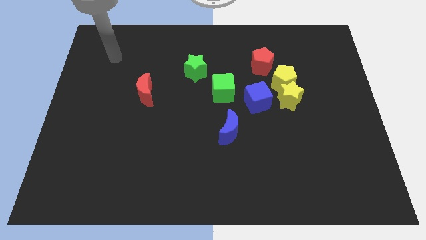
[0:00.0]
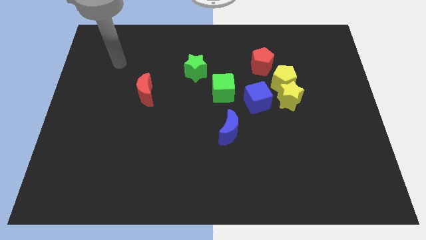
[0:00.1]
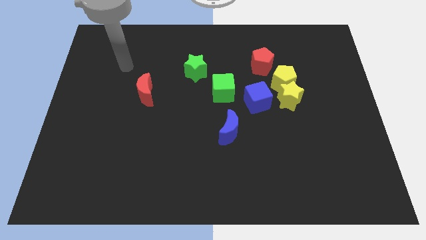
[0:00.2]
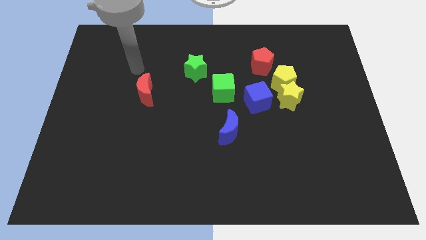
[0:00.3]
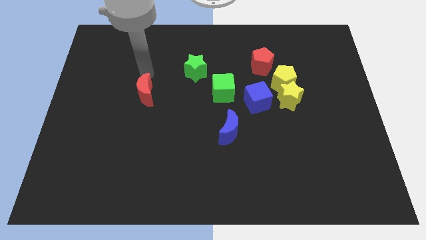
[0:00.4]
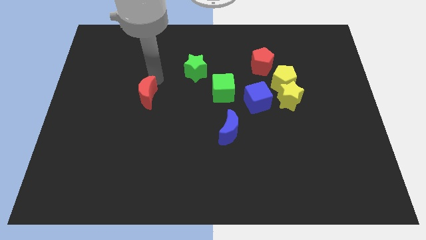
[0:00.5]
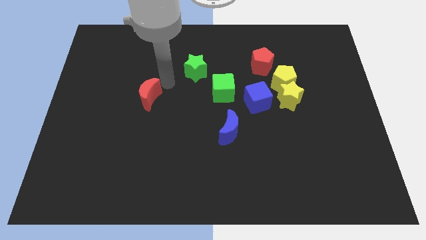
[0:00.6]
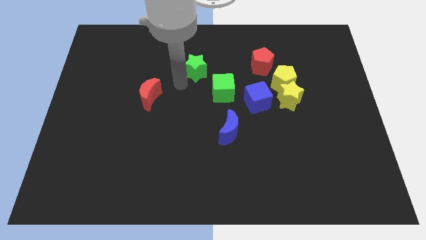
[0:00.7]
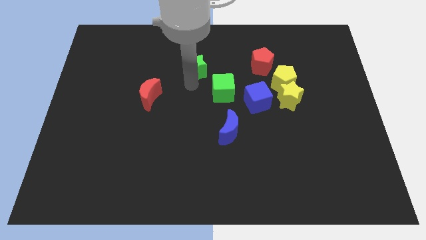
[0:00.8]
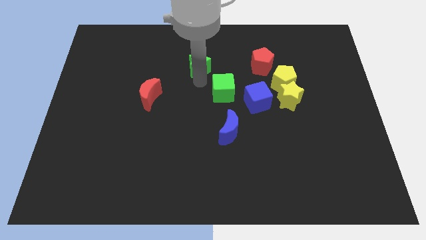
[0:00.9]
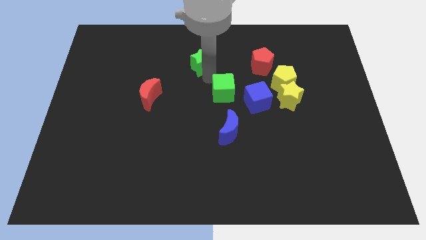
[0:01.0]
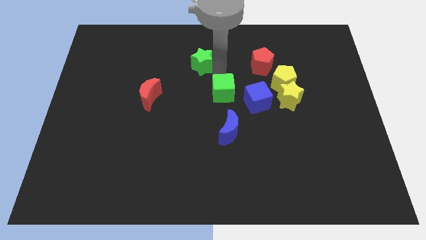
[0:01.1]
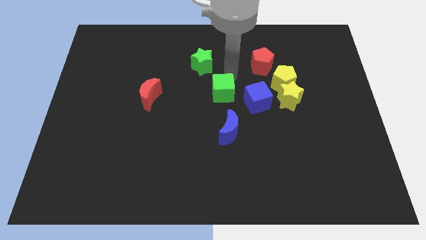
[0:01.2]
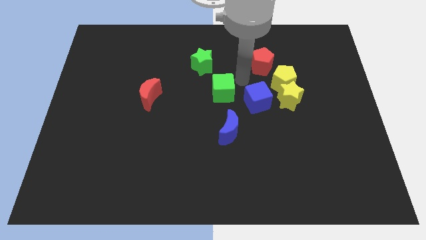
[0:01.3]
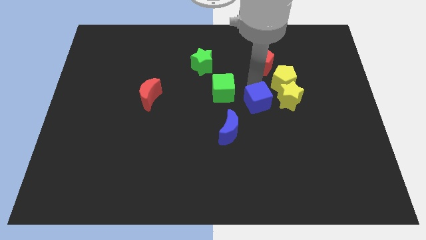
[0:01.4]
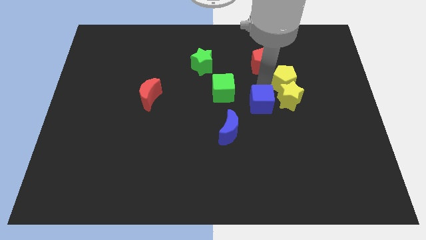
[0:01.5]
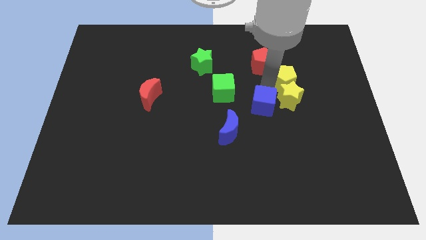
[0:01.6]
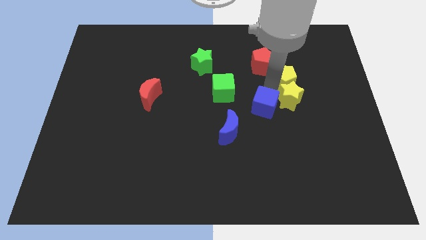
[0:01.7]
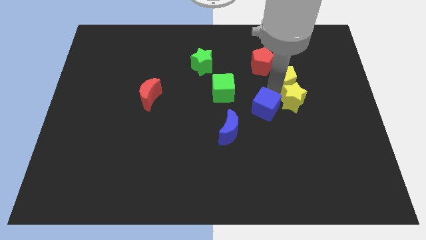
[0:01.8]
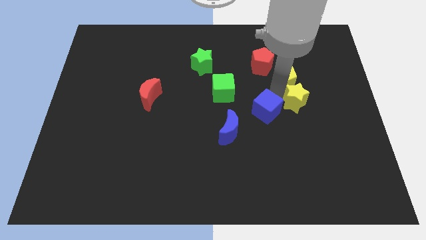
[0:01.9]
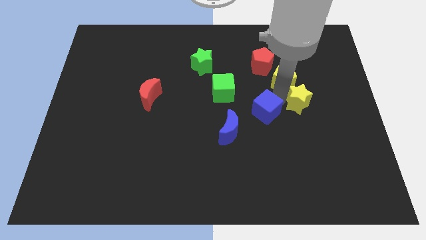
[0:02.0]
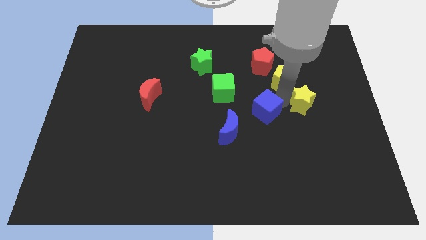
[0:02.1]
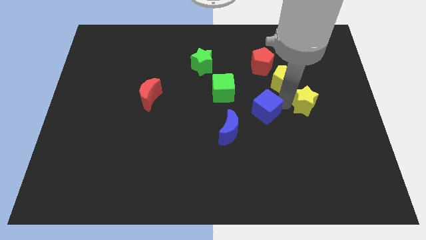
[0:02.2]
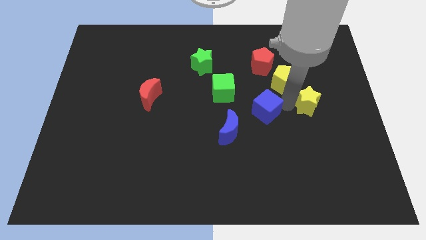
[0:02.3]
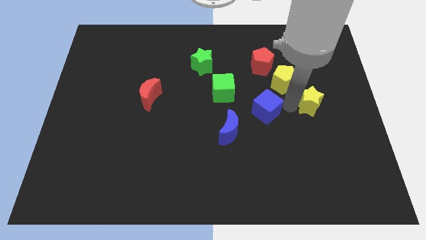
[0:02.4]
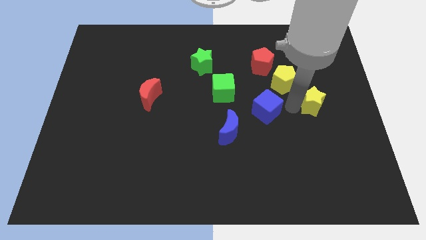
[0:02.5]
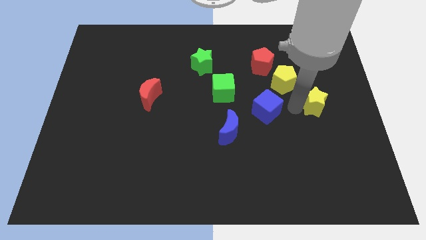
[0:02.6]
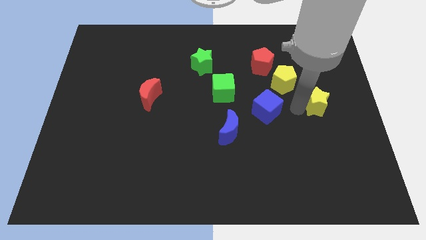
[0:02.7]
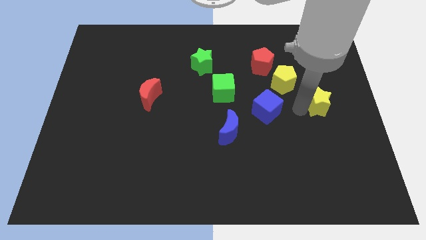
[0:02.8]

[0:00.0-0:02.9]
pull the yellow star apart from the yellow pentagon and blue cube

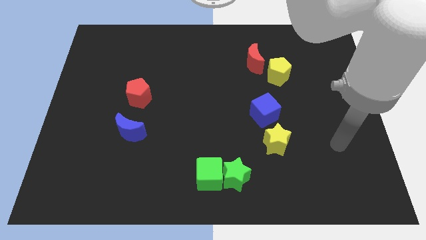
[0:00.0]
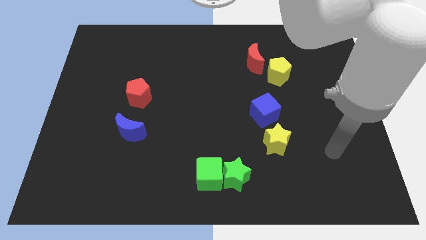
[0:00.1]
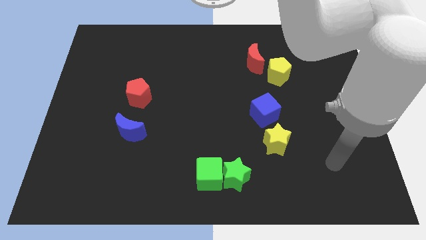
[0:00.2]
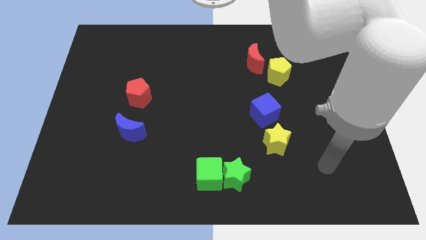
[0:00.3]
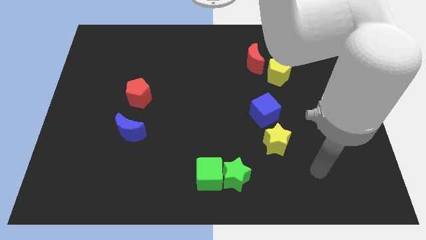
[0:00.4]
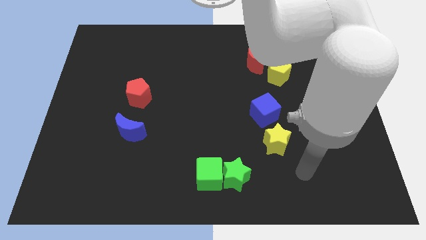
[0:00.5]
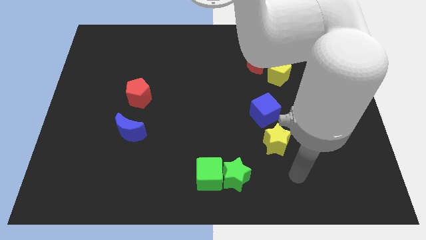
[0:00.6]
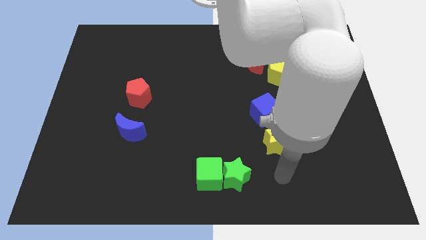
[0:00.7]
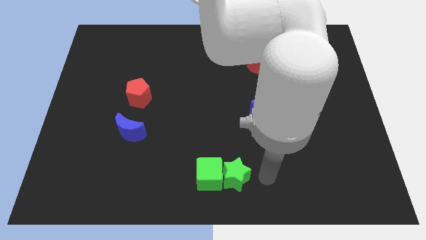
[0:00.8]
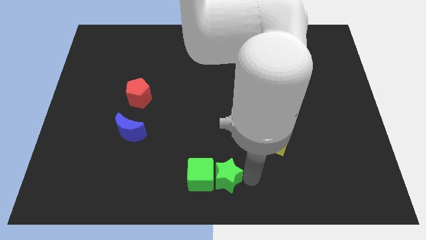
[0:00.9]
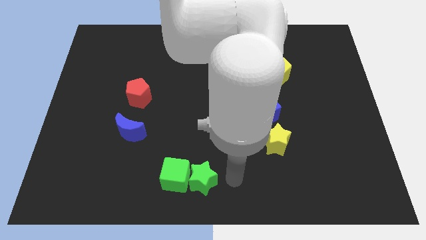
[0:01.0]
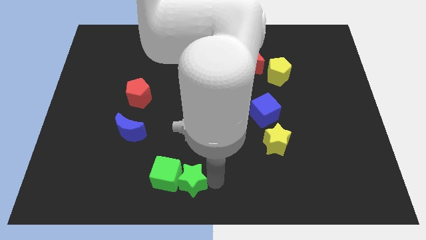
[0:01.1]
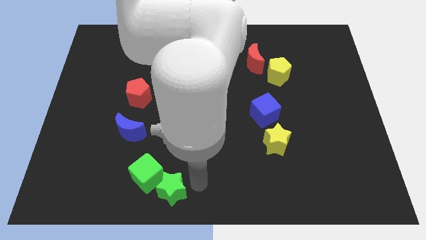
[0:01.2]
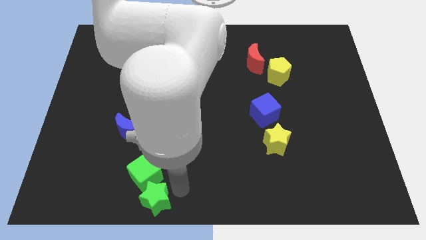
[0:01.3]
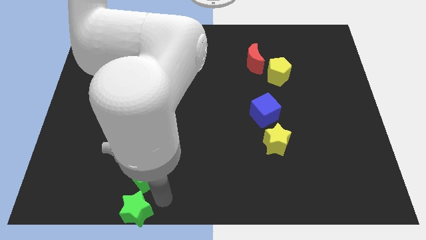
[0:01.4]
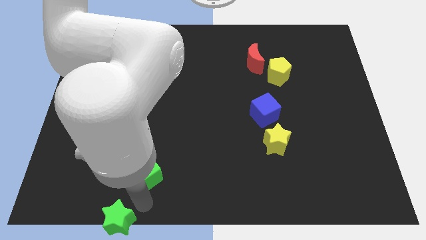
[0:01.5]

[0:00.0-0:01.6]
move the green cube away from the green star

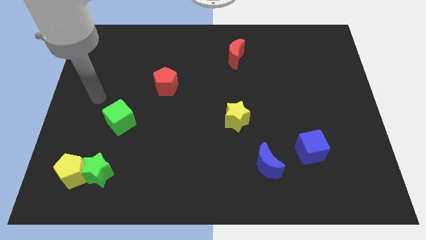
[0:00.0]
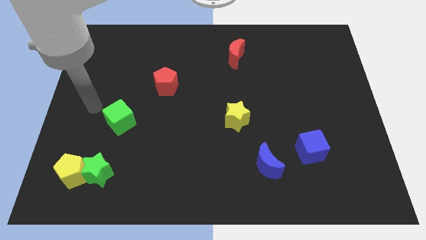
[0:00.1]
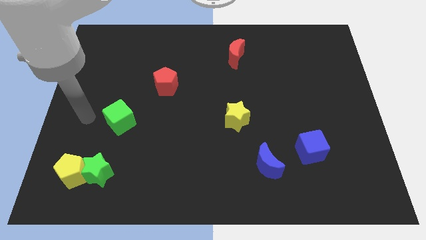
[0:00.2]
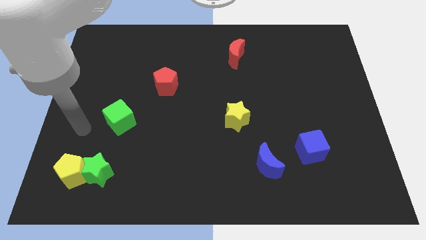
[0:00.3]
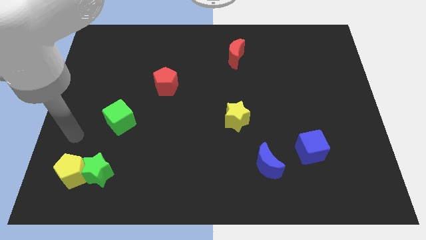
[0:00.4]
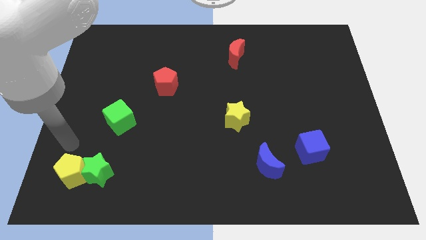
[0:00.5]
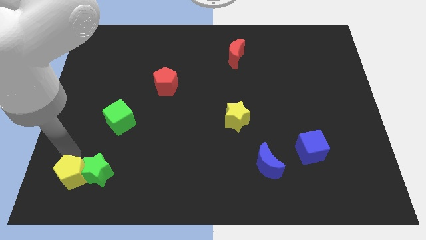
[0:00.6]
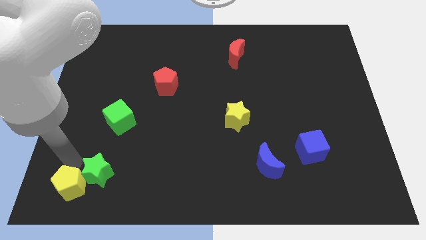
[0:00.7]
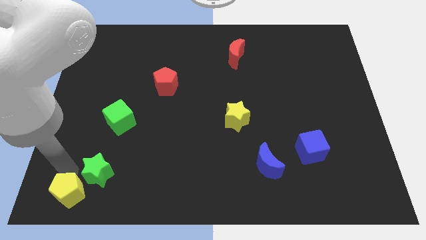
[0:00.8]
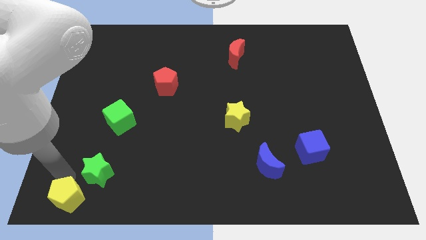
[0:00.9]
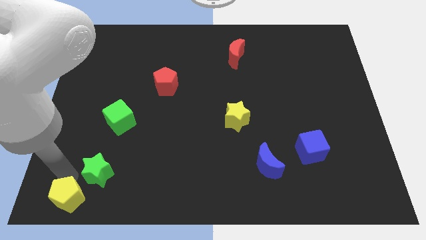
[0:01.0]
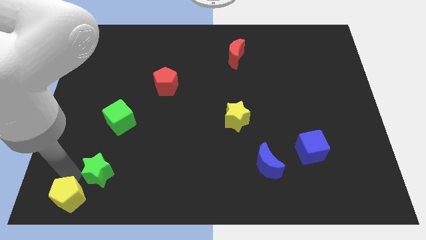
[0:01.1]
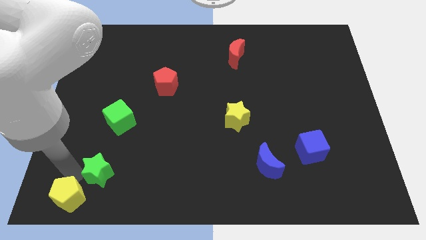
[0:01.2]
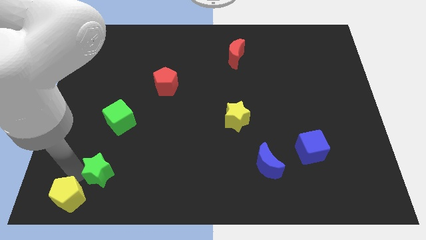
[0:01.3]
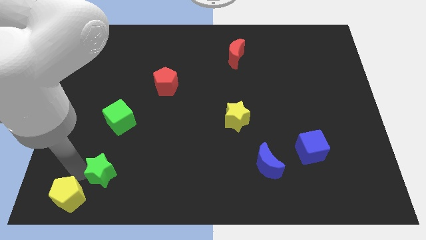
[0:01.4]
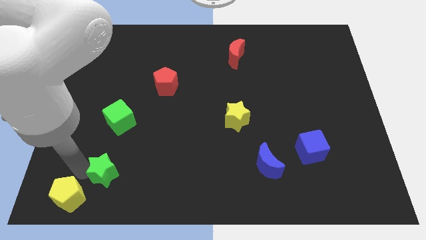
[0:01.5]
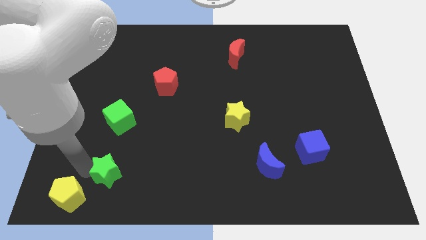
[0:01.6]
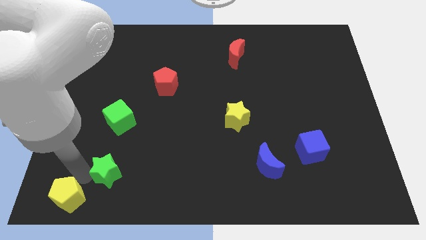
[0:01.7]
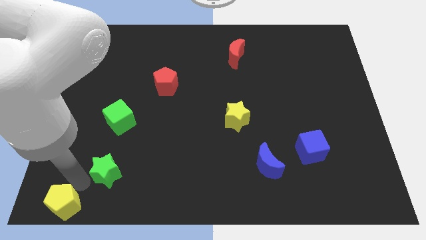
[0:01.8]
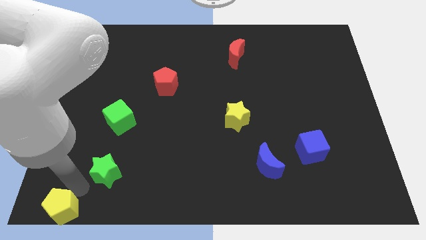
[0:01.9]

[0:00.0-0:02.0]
move the green star away from the yellow pentagon

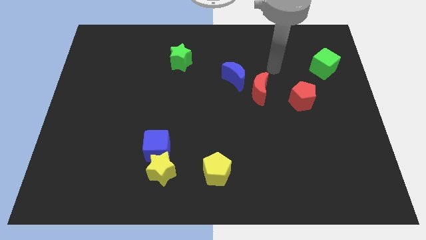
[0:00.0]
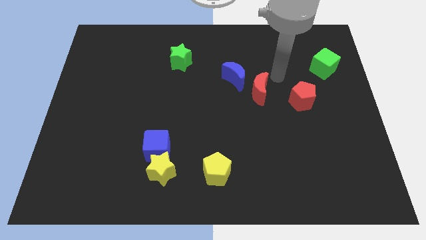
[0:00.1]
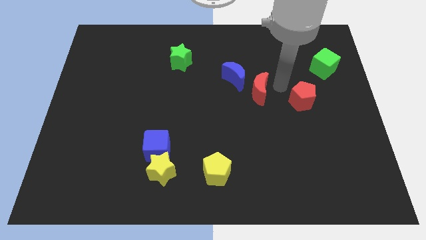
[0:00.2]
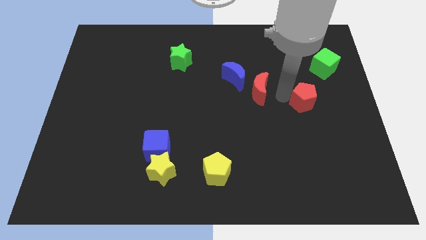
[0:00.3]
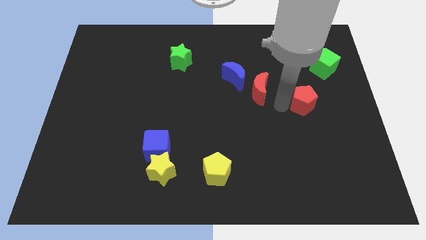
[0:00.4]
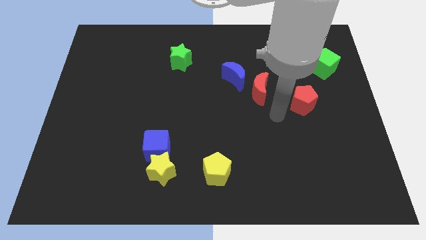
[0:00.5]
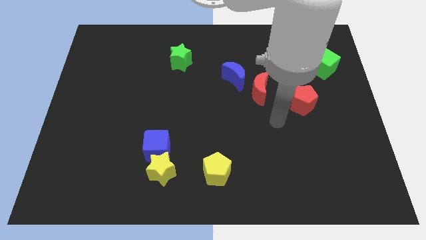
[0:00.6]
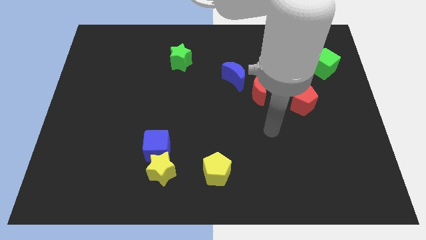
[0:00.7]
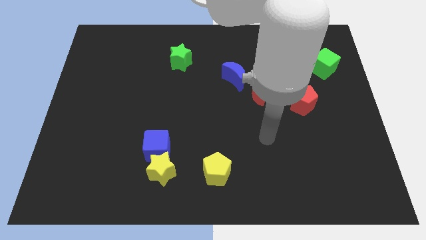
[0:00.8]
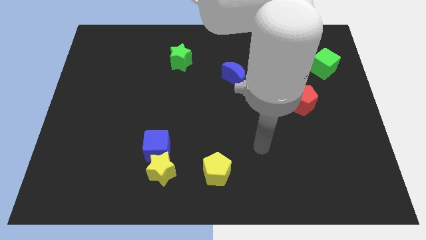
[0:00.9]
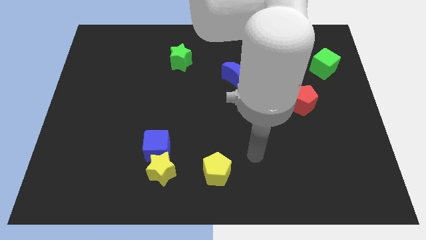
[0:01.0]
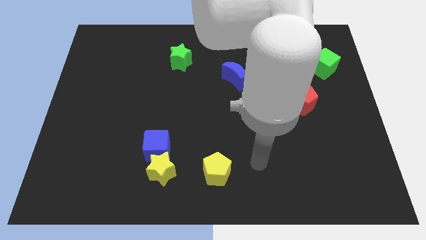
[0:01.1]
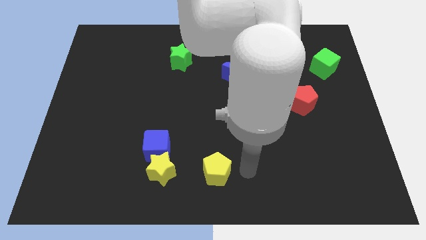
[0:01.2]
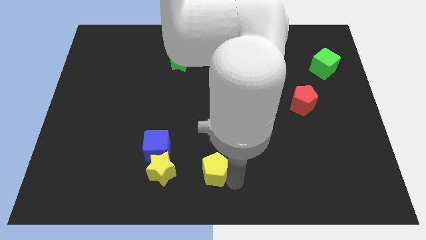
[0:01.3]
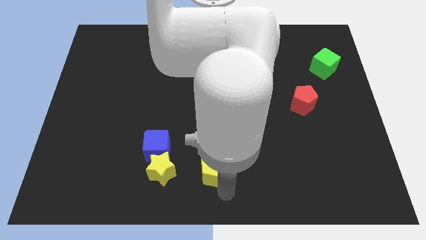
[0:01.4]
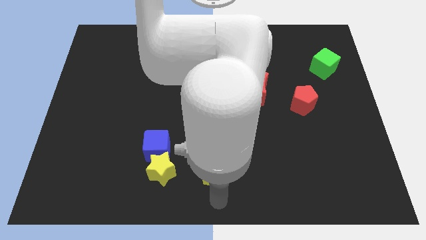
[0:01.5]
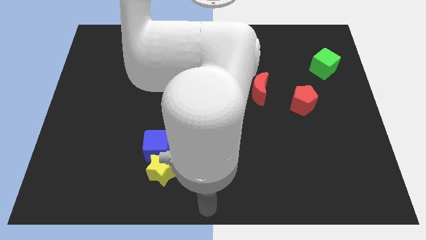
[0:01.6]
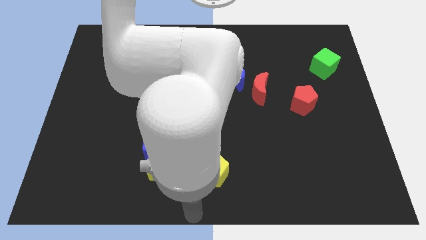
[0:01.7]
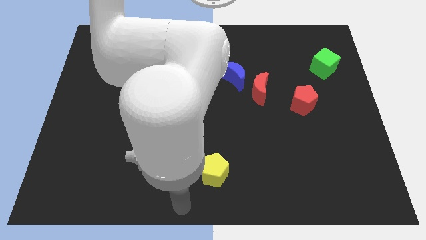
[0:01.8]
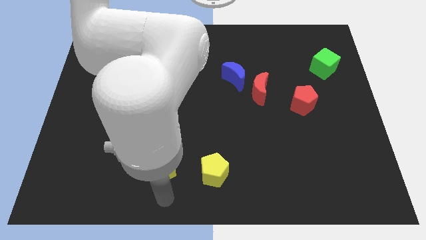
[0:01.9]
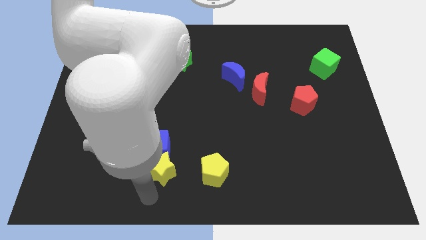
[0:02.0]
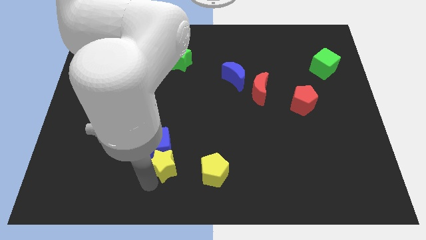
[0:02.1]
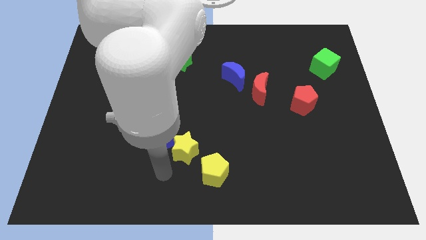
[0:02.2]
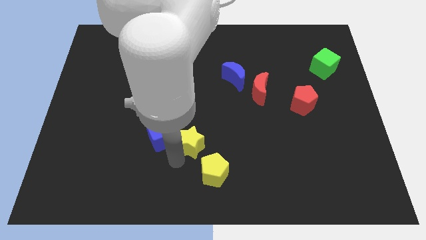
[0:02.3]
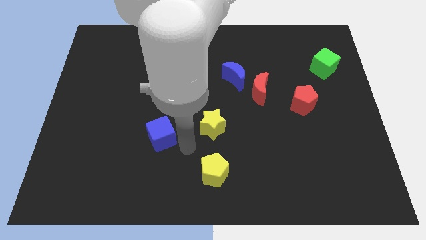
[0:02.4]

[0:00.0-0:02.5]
pull the blue cube apart from the yellow star

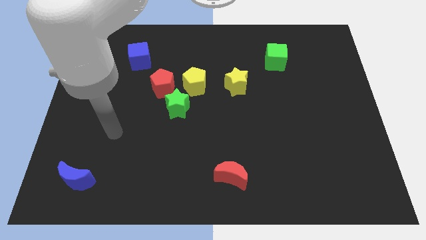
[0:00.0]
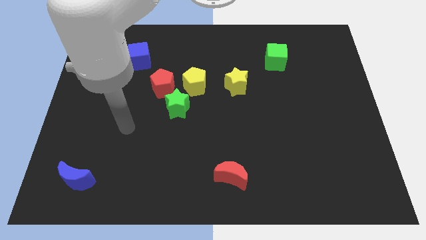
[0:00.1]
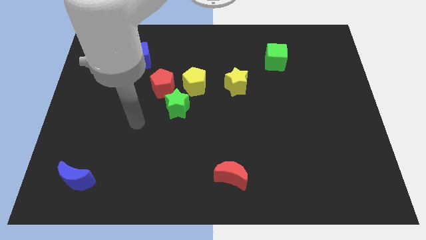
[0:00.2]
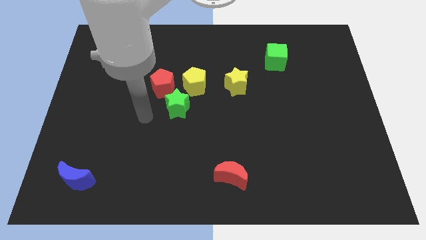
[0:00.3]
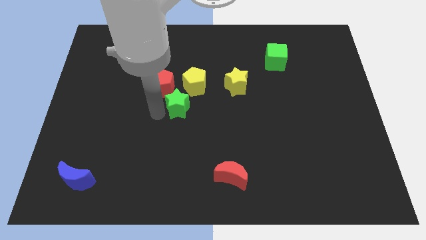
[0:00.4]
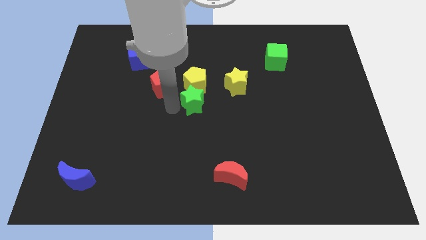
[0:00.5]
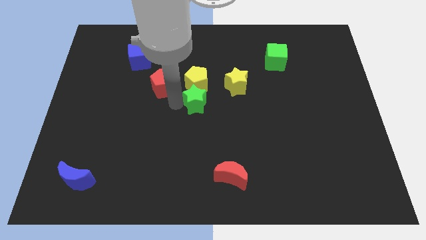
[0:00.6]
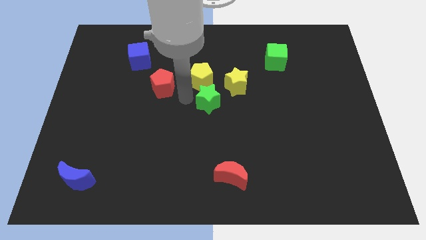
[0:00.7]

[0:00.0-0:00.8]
move the red pentagon away from the green star and yellow pentagon
